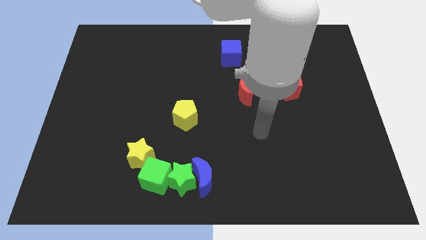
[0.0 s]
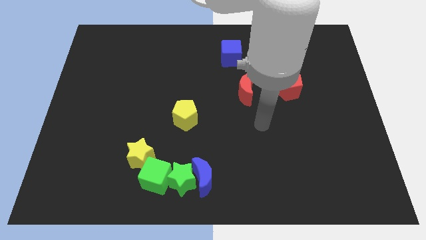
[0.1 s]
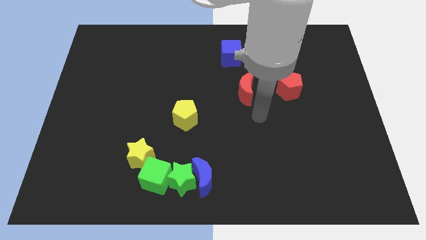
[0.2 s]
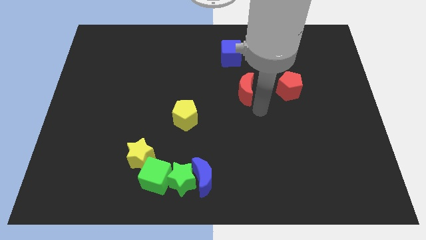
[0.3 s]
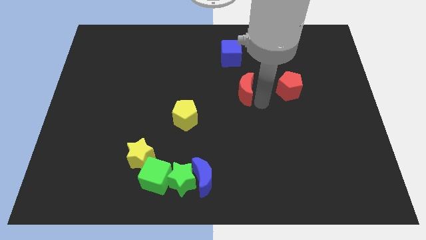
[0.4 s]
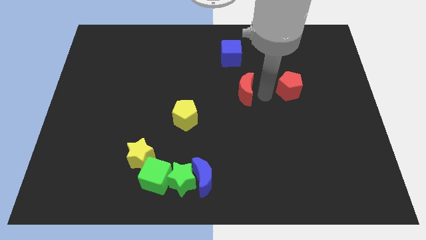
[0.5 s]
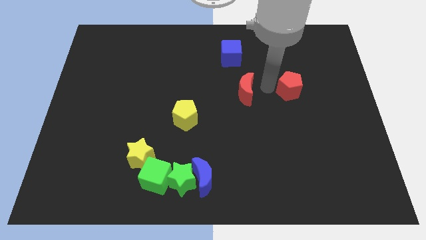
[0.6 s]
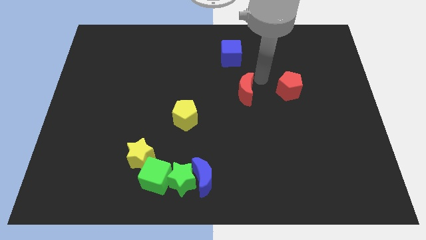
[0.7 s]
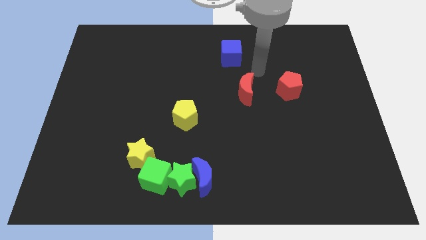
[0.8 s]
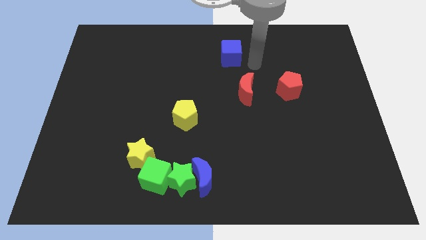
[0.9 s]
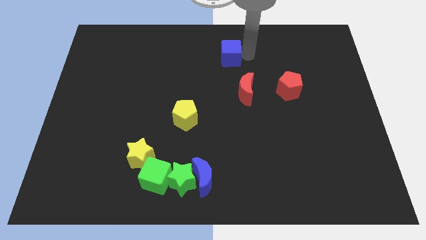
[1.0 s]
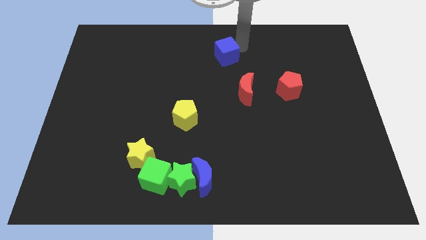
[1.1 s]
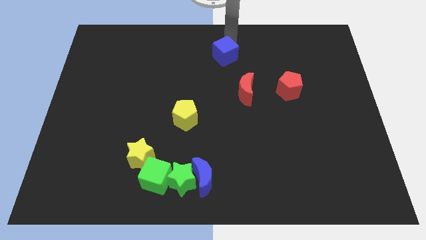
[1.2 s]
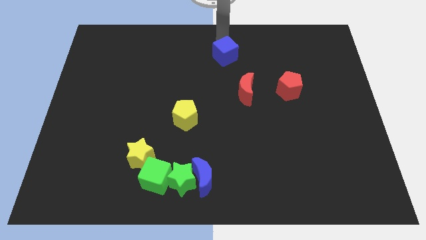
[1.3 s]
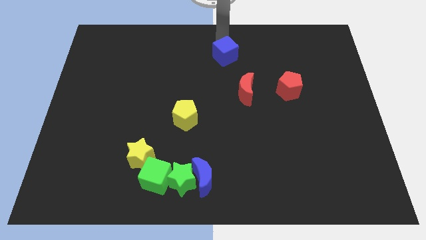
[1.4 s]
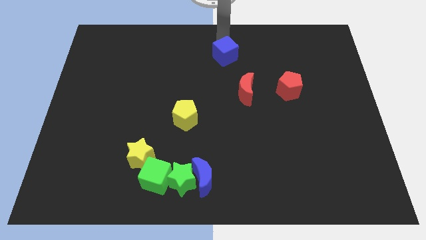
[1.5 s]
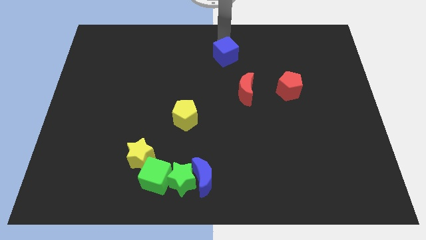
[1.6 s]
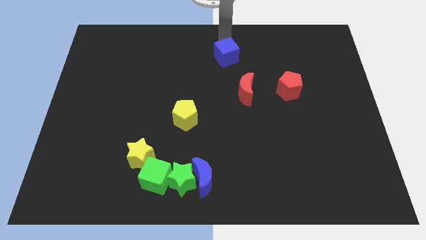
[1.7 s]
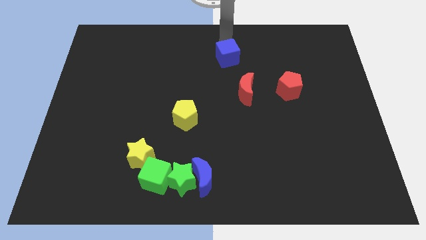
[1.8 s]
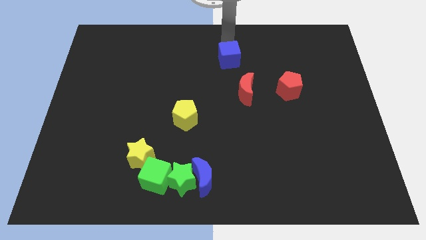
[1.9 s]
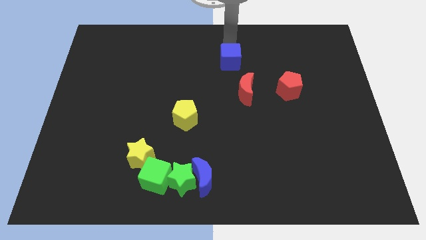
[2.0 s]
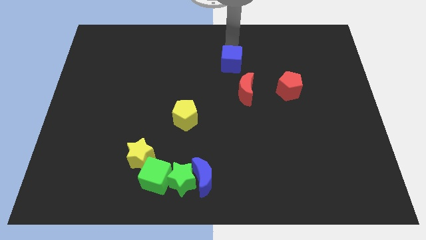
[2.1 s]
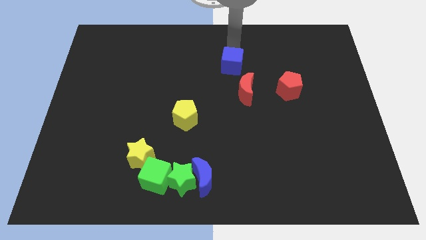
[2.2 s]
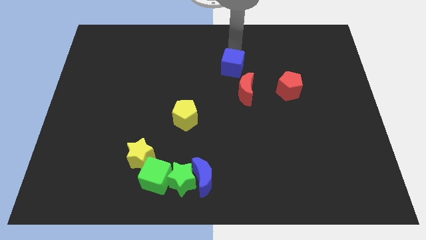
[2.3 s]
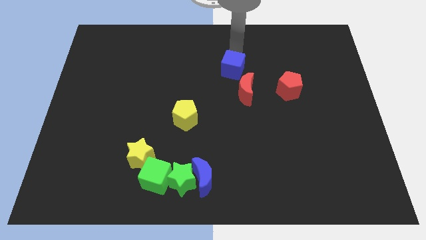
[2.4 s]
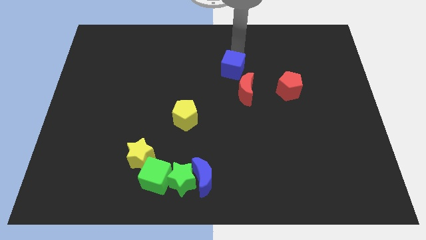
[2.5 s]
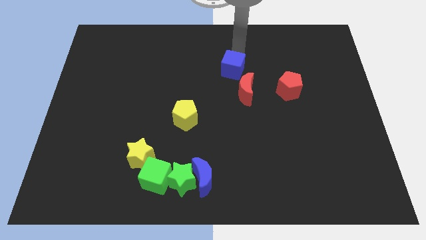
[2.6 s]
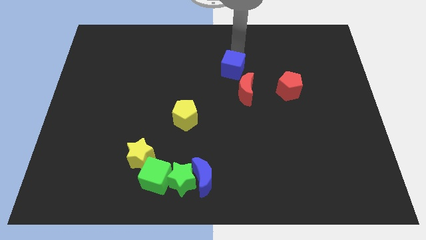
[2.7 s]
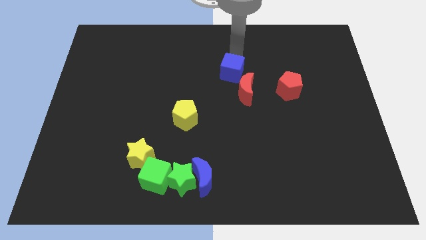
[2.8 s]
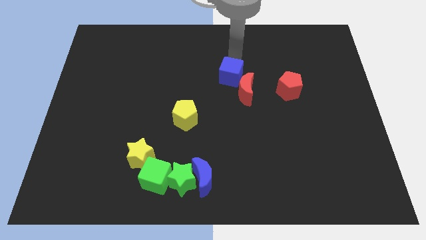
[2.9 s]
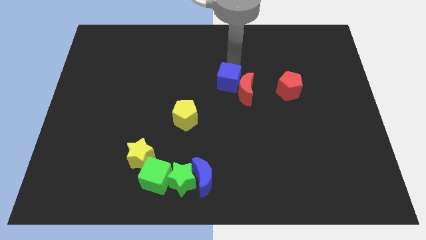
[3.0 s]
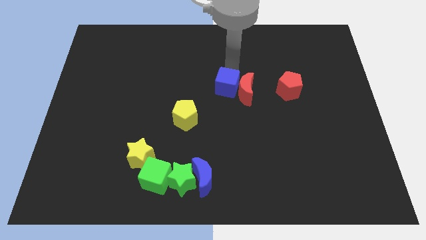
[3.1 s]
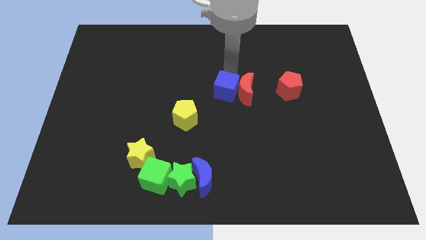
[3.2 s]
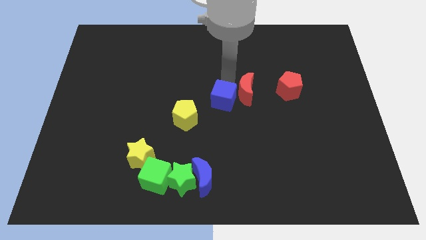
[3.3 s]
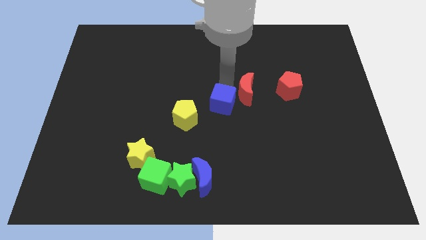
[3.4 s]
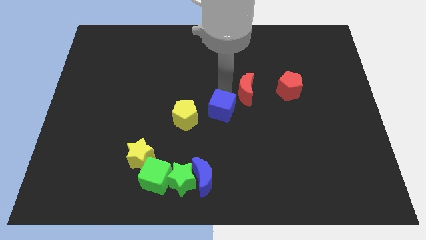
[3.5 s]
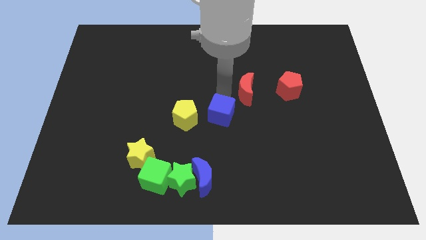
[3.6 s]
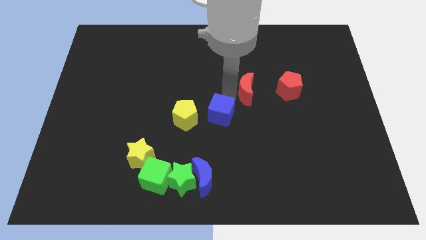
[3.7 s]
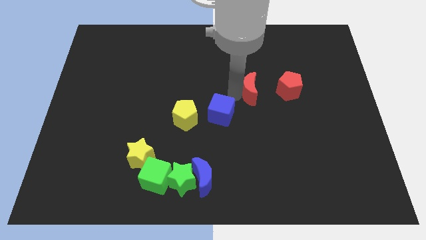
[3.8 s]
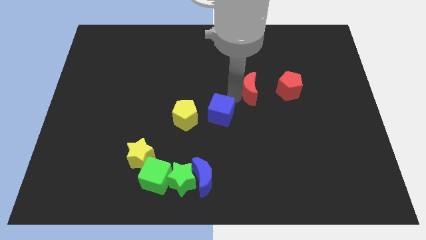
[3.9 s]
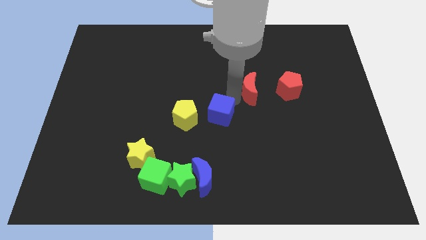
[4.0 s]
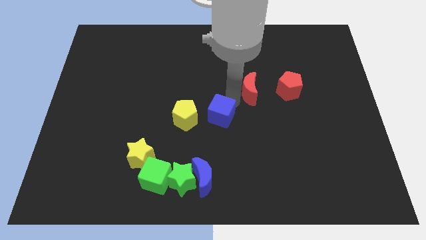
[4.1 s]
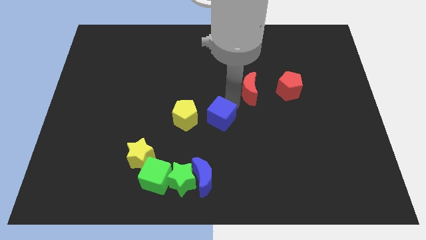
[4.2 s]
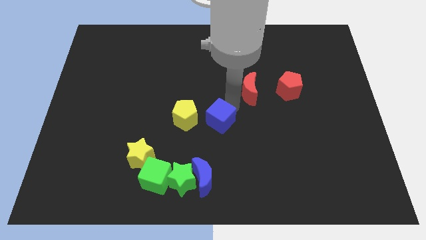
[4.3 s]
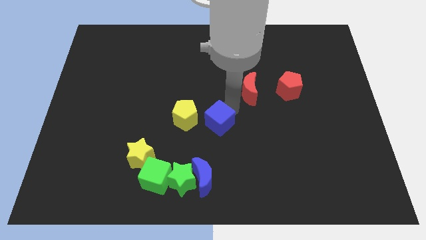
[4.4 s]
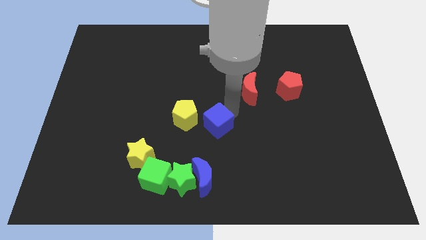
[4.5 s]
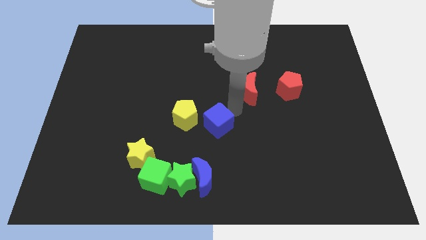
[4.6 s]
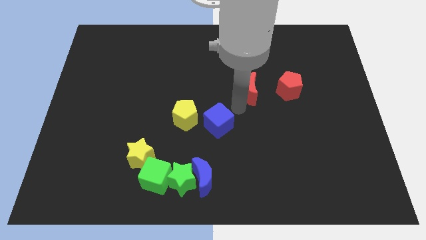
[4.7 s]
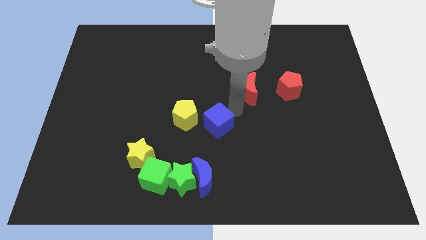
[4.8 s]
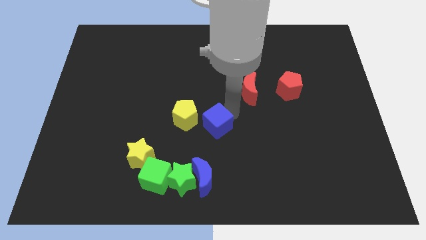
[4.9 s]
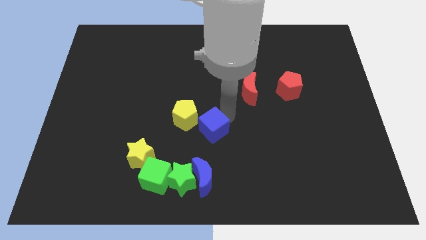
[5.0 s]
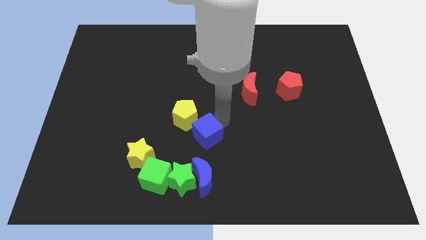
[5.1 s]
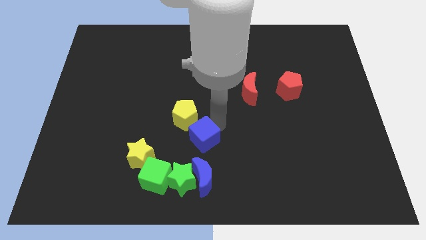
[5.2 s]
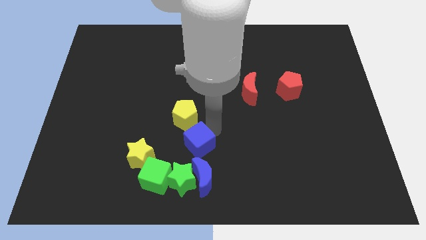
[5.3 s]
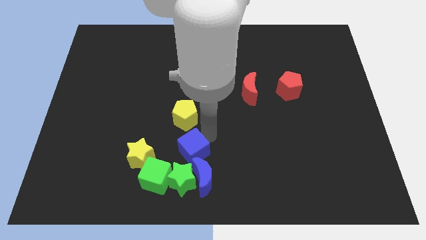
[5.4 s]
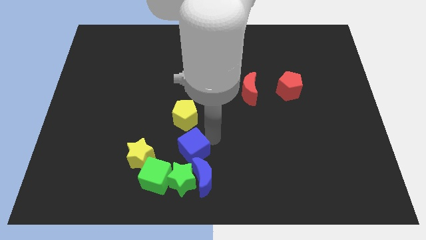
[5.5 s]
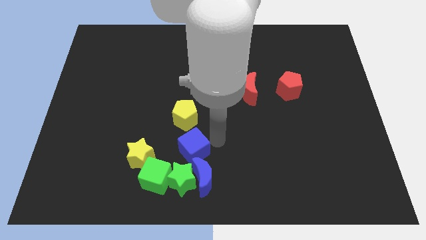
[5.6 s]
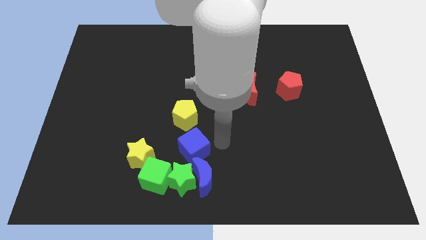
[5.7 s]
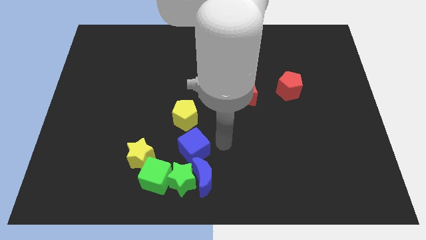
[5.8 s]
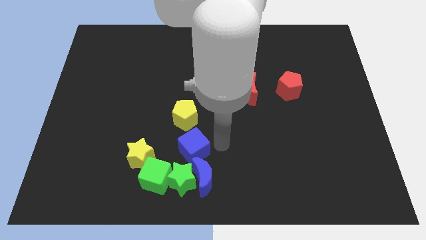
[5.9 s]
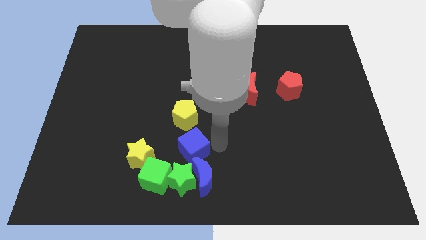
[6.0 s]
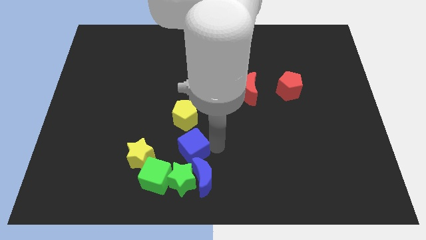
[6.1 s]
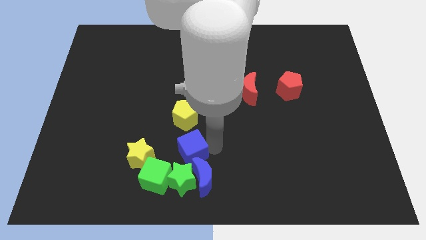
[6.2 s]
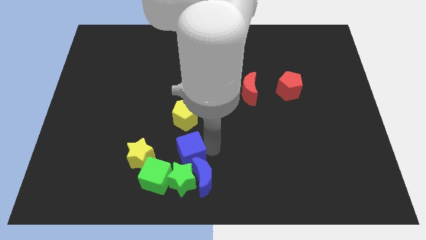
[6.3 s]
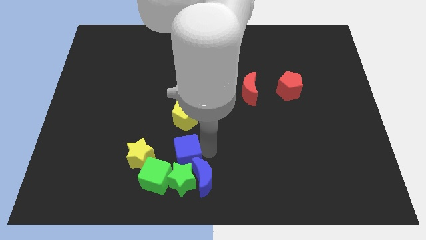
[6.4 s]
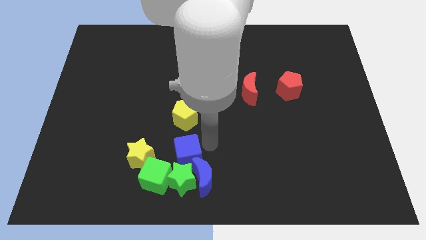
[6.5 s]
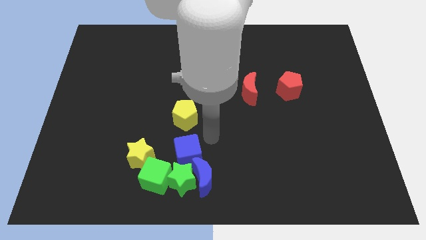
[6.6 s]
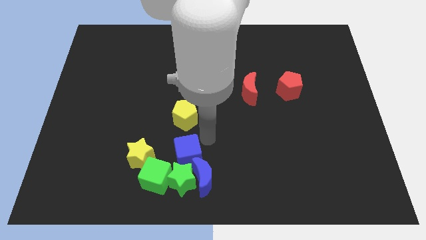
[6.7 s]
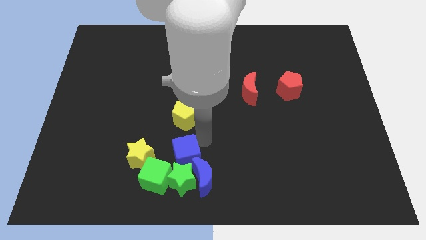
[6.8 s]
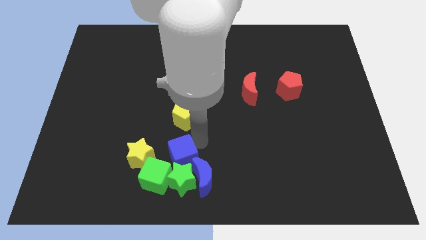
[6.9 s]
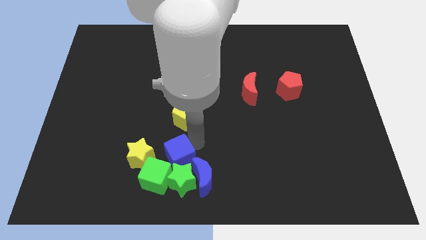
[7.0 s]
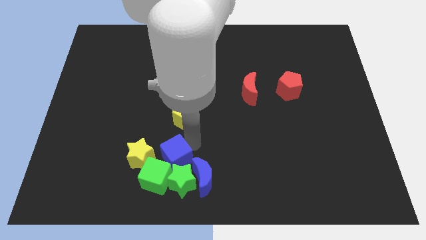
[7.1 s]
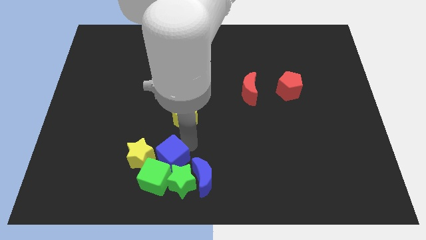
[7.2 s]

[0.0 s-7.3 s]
push the blue cube next to the green cube
